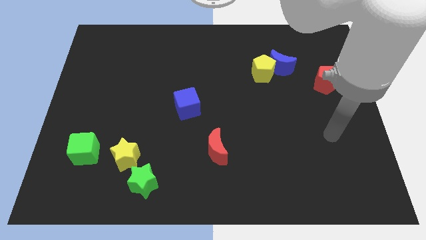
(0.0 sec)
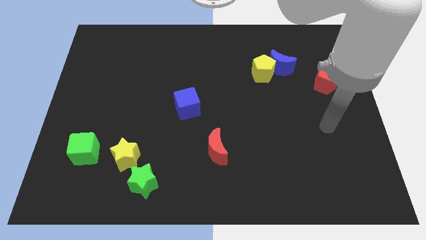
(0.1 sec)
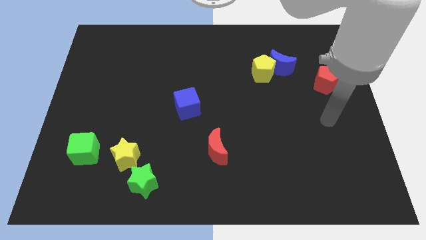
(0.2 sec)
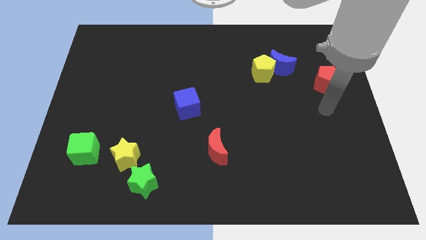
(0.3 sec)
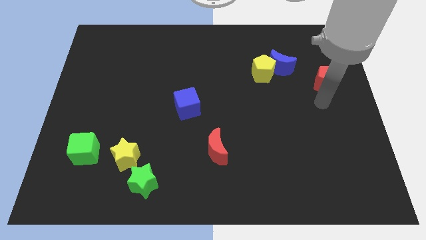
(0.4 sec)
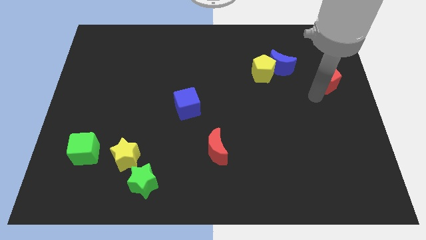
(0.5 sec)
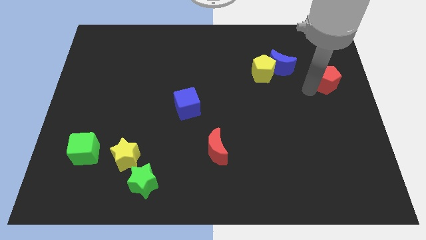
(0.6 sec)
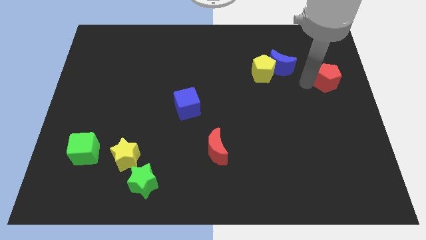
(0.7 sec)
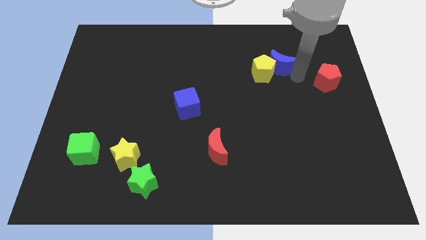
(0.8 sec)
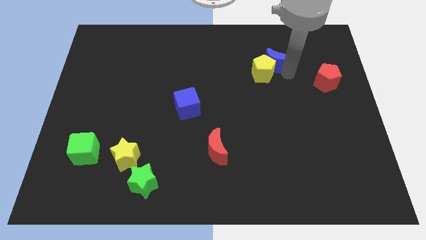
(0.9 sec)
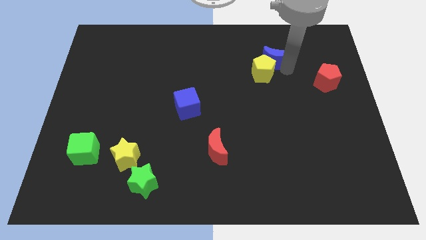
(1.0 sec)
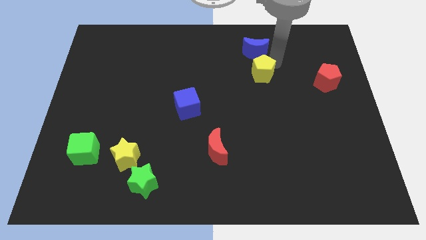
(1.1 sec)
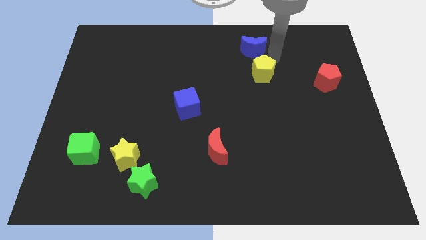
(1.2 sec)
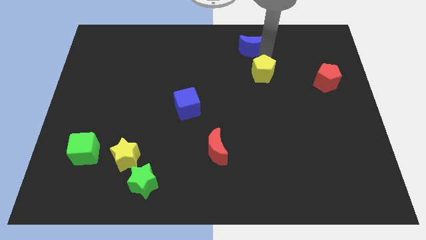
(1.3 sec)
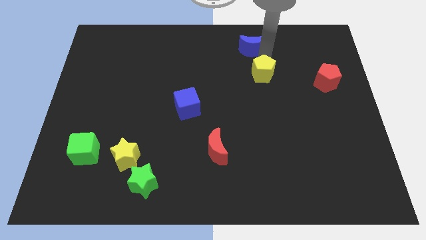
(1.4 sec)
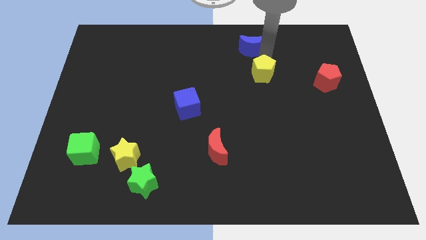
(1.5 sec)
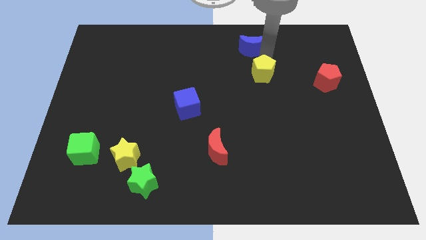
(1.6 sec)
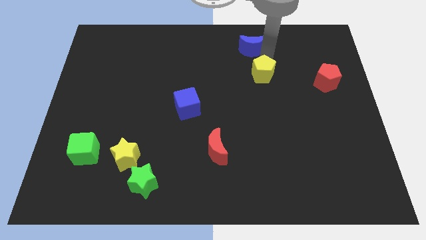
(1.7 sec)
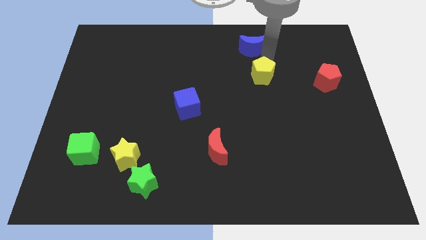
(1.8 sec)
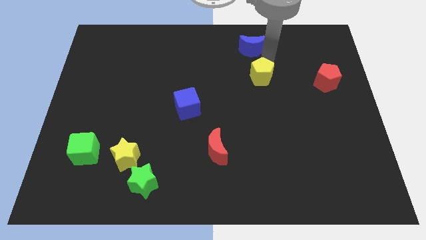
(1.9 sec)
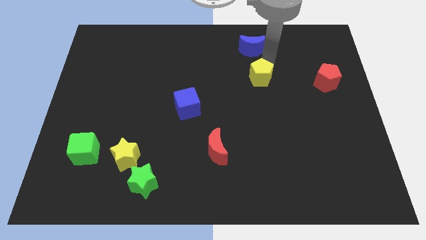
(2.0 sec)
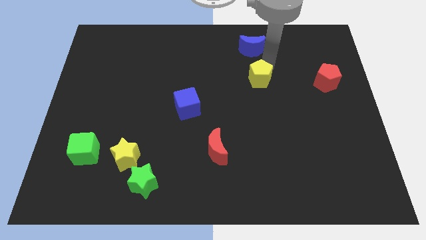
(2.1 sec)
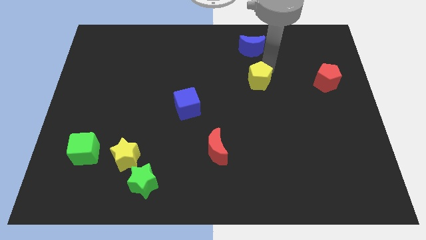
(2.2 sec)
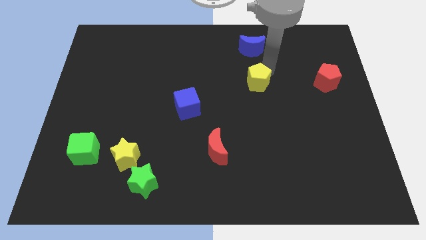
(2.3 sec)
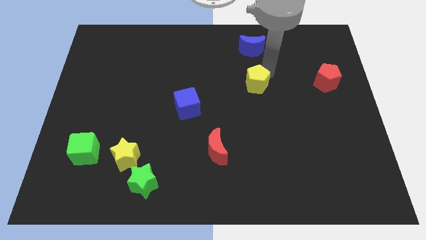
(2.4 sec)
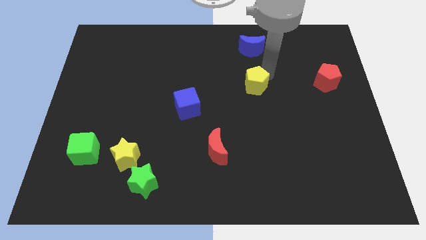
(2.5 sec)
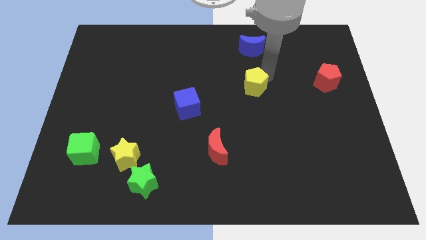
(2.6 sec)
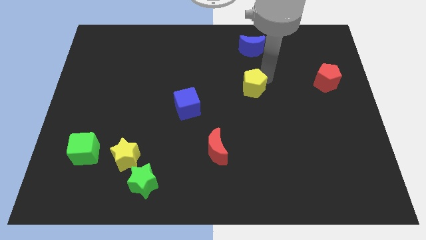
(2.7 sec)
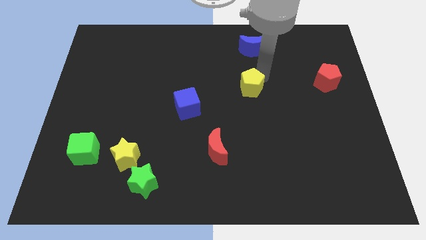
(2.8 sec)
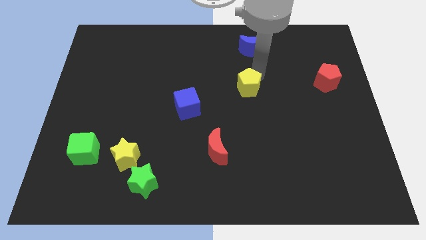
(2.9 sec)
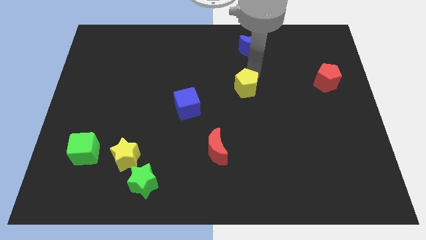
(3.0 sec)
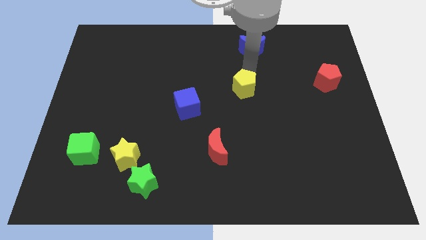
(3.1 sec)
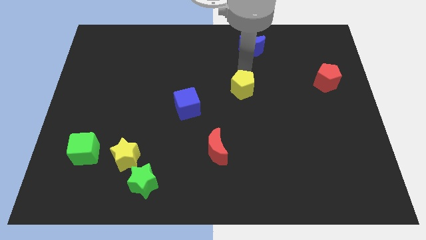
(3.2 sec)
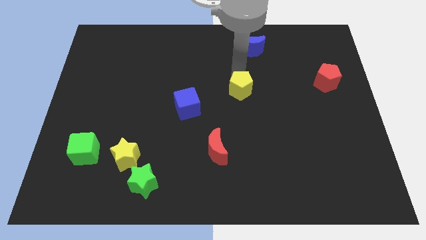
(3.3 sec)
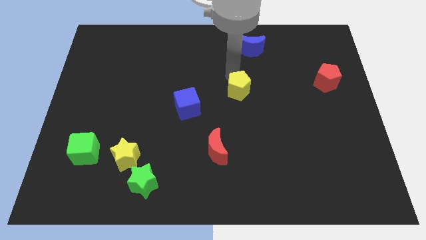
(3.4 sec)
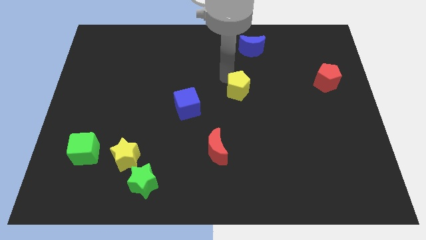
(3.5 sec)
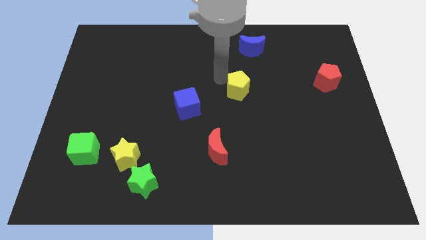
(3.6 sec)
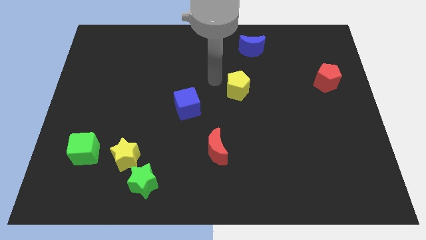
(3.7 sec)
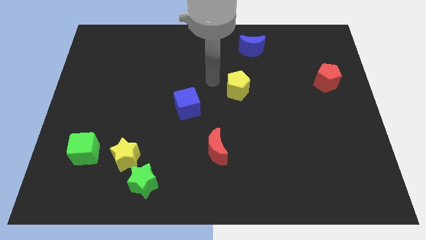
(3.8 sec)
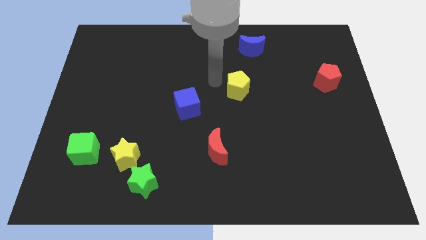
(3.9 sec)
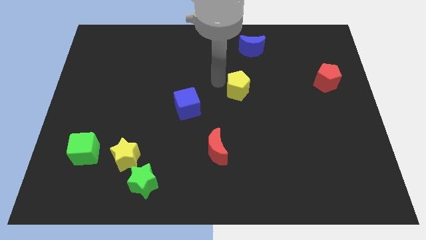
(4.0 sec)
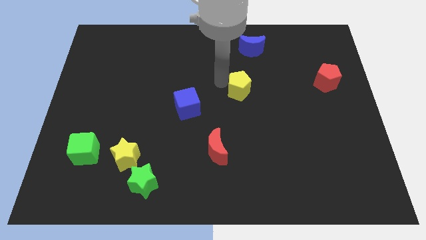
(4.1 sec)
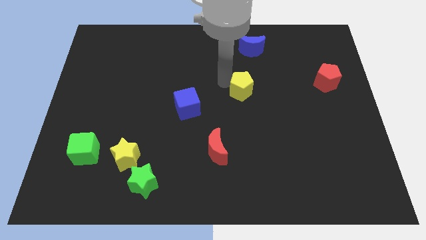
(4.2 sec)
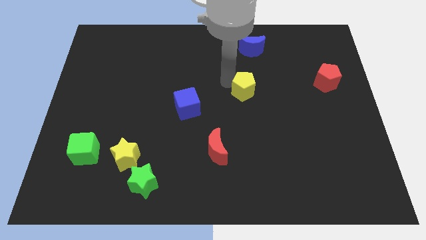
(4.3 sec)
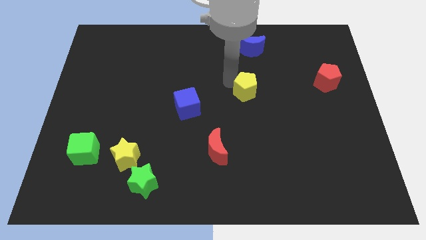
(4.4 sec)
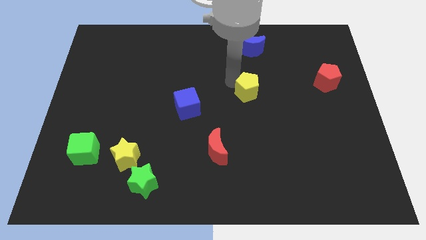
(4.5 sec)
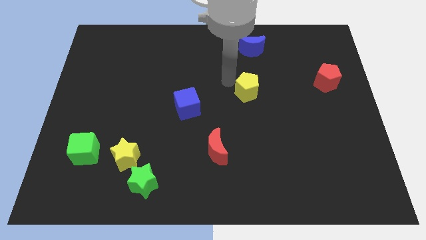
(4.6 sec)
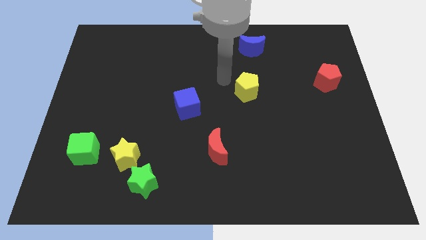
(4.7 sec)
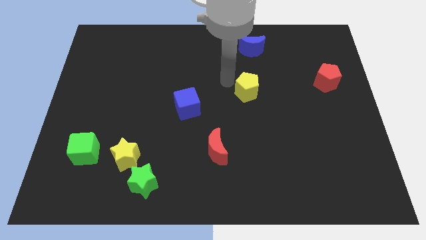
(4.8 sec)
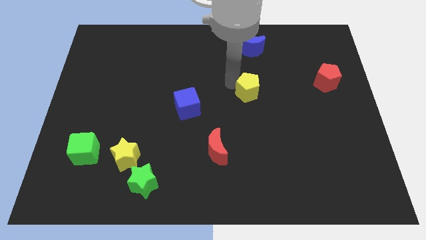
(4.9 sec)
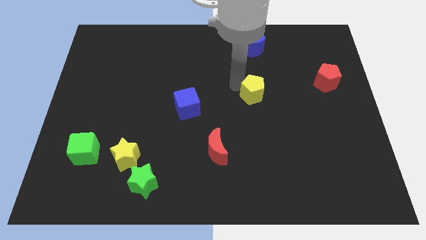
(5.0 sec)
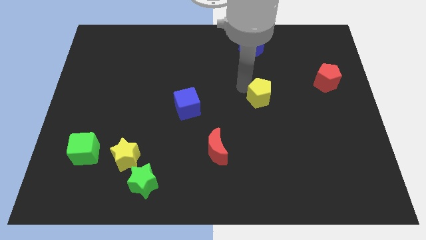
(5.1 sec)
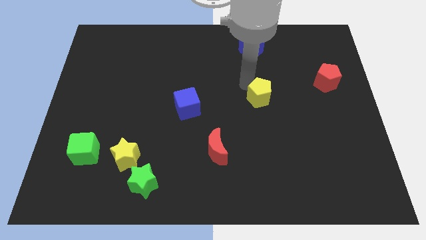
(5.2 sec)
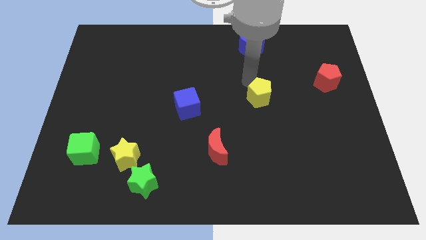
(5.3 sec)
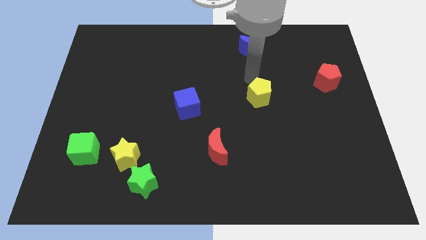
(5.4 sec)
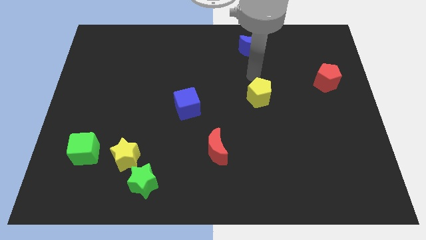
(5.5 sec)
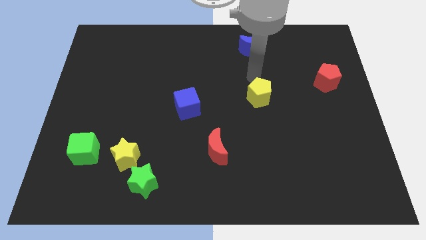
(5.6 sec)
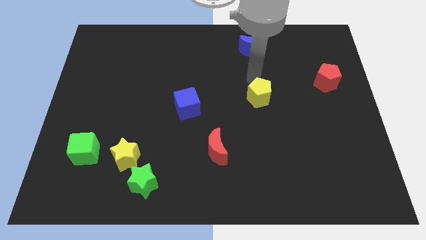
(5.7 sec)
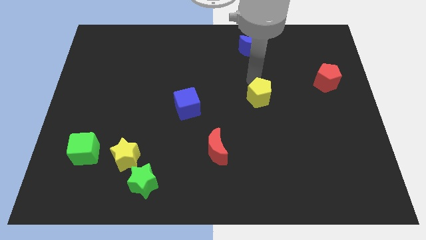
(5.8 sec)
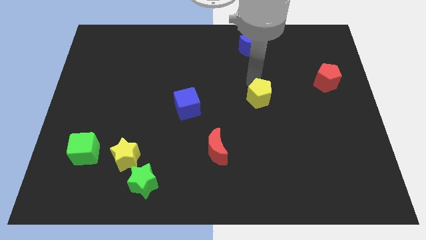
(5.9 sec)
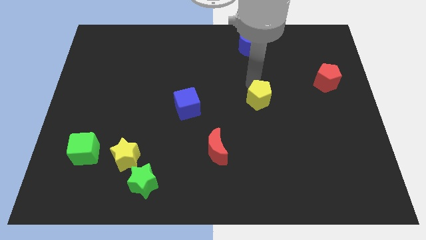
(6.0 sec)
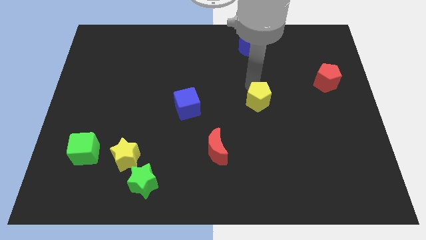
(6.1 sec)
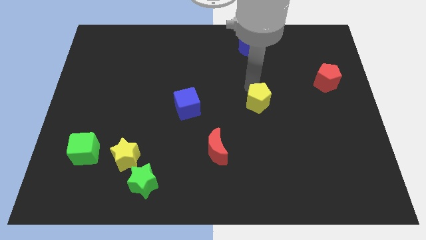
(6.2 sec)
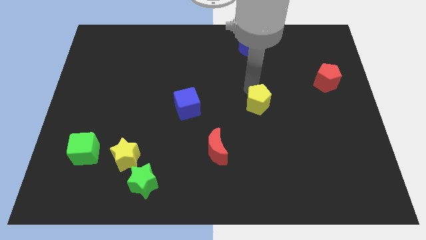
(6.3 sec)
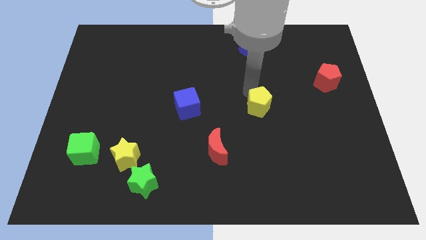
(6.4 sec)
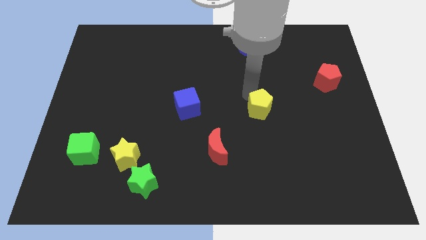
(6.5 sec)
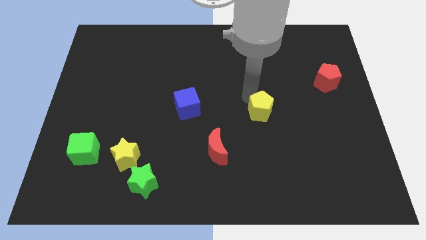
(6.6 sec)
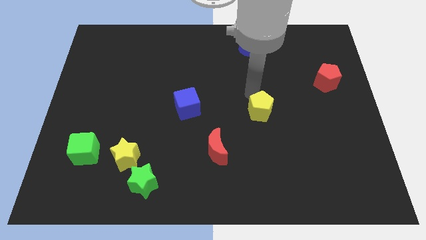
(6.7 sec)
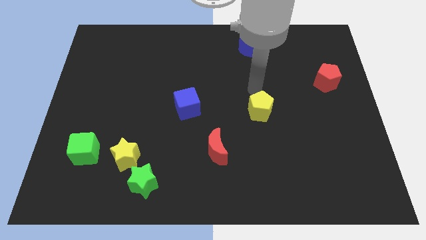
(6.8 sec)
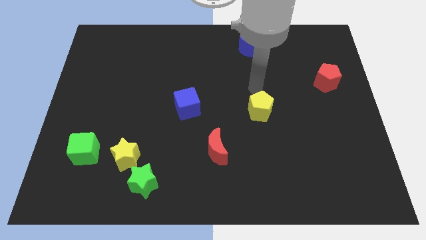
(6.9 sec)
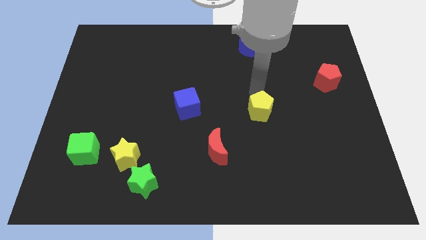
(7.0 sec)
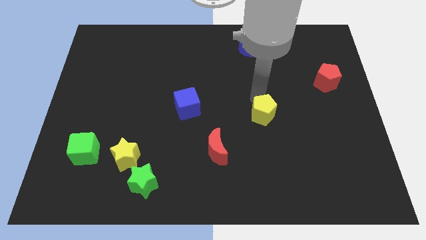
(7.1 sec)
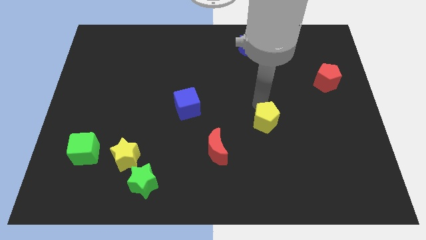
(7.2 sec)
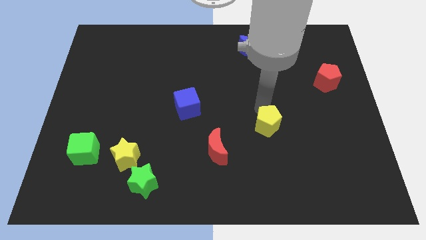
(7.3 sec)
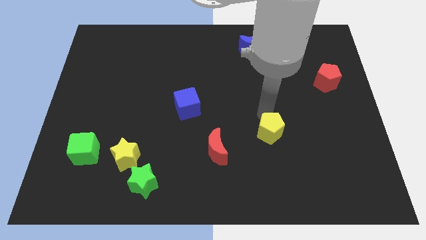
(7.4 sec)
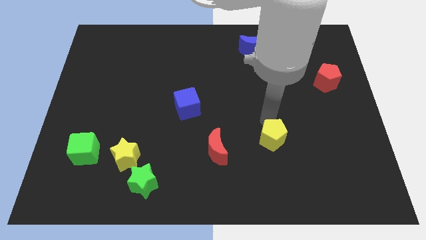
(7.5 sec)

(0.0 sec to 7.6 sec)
slide the yellow pentagon to the right of the red moon
